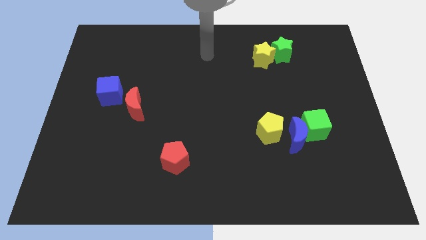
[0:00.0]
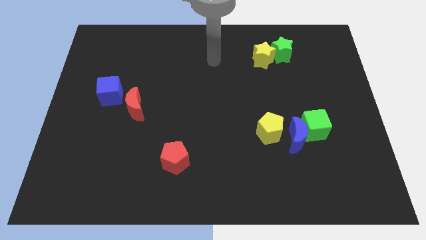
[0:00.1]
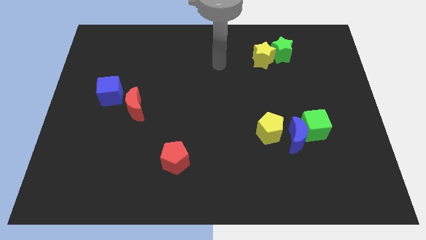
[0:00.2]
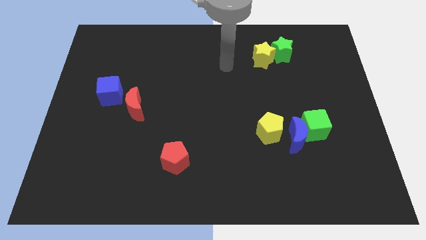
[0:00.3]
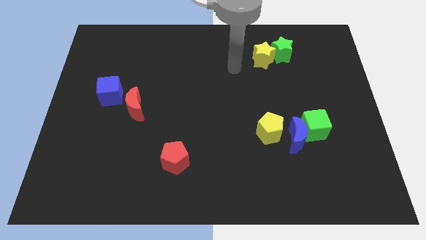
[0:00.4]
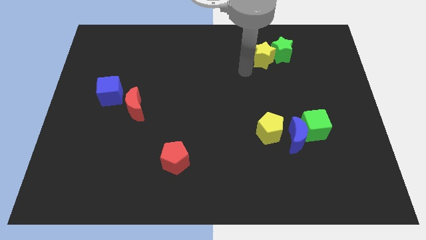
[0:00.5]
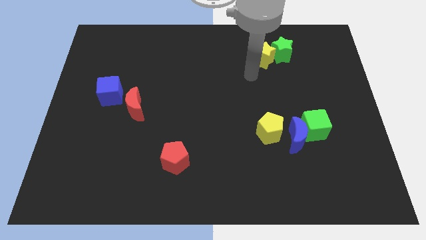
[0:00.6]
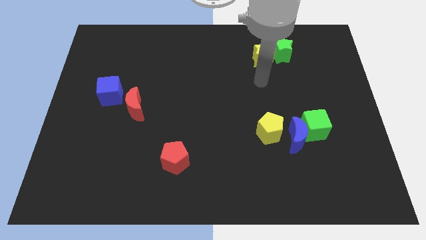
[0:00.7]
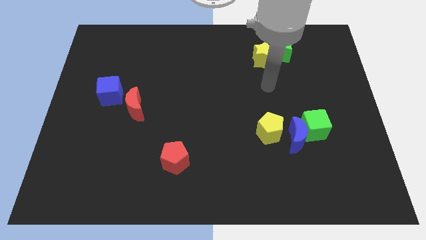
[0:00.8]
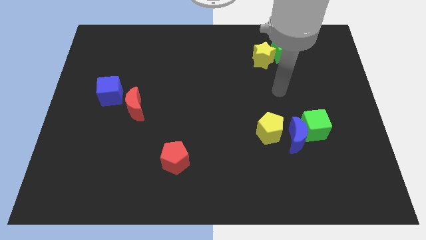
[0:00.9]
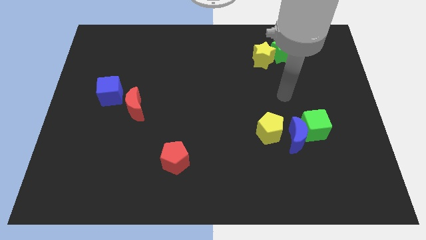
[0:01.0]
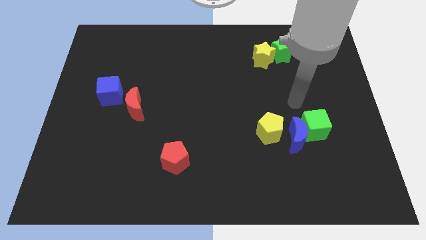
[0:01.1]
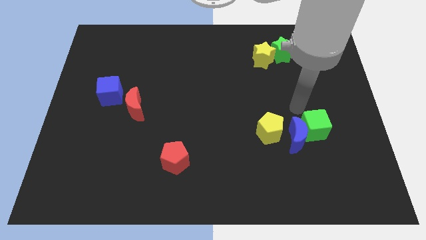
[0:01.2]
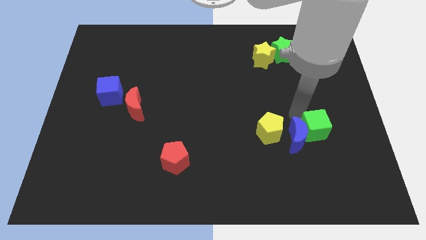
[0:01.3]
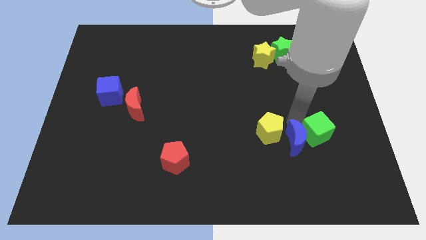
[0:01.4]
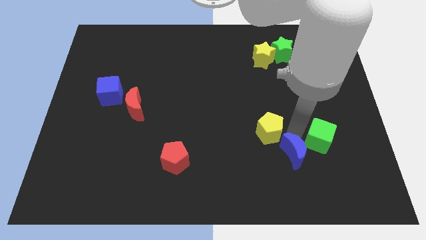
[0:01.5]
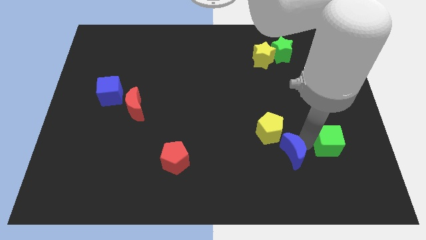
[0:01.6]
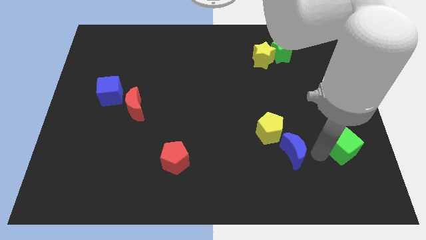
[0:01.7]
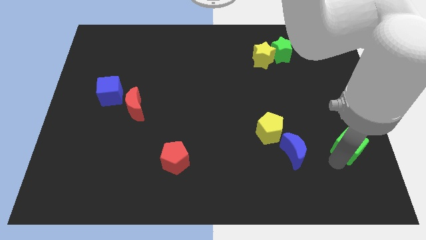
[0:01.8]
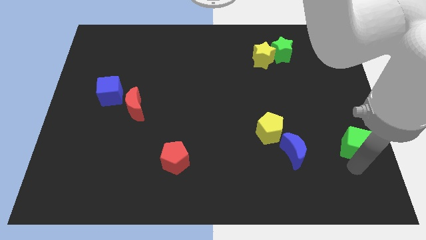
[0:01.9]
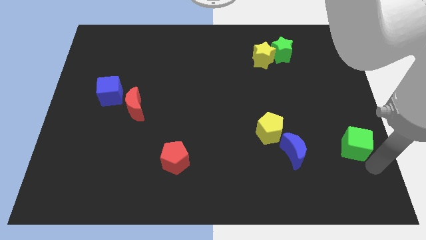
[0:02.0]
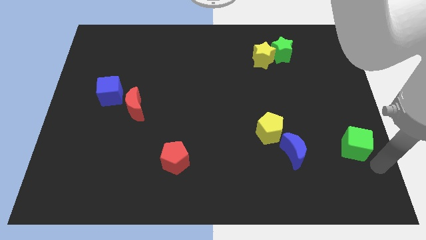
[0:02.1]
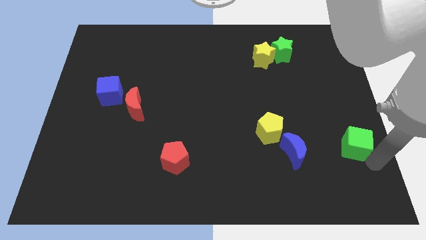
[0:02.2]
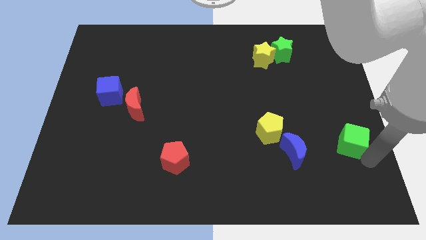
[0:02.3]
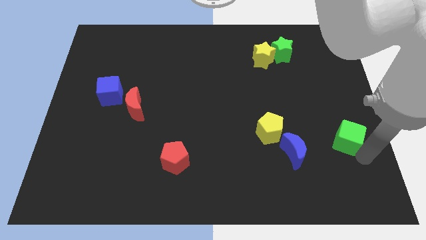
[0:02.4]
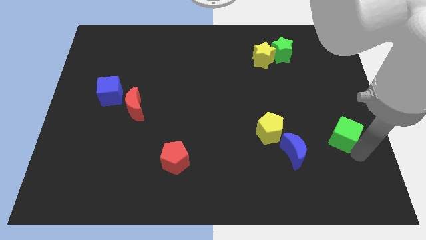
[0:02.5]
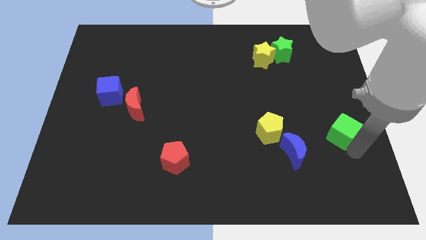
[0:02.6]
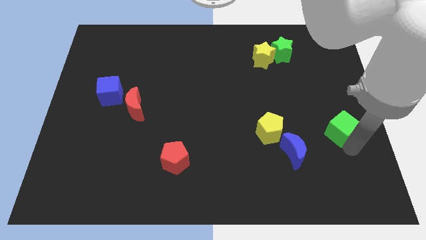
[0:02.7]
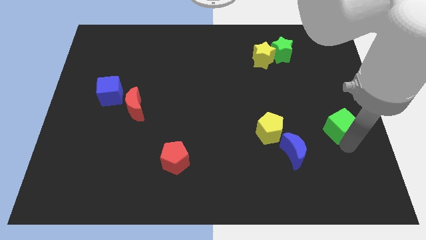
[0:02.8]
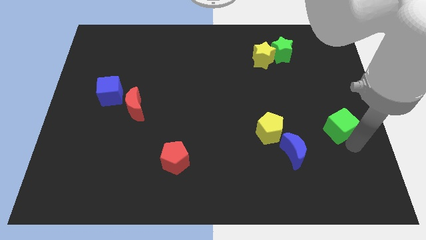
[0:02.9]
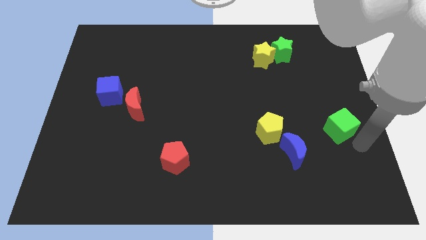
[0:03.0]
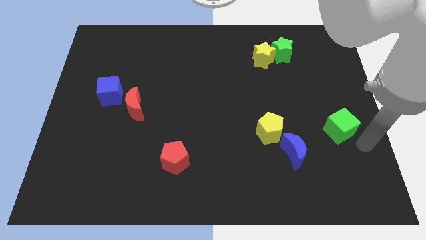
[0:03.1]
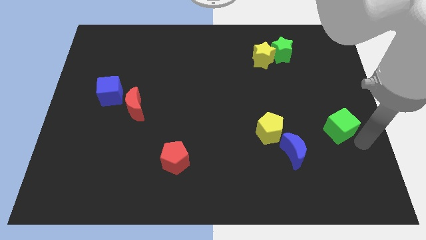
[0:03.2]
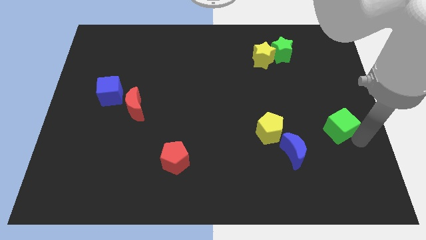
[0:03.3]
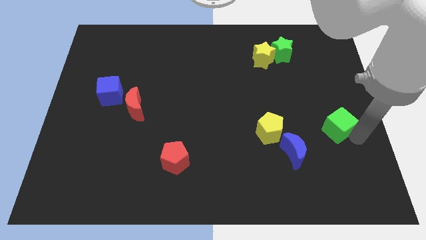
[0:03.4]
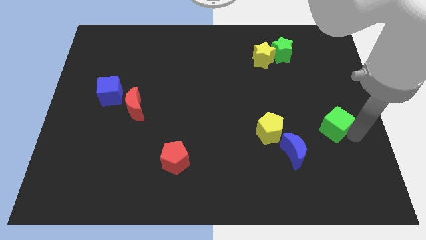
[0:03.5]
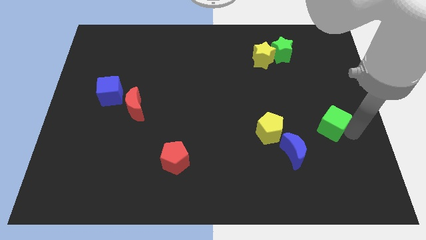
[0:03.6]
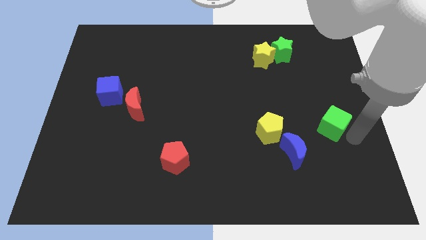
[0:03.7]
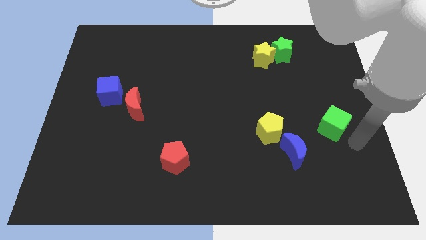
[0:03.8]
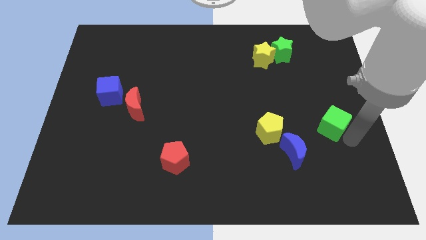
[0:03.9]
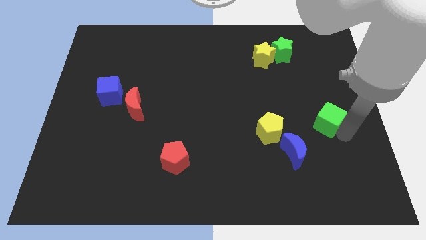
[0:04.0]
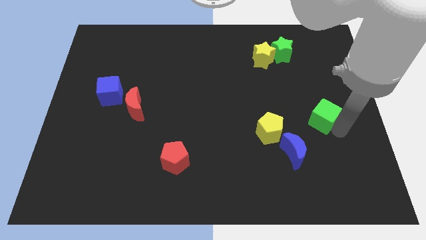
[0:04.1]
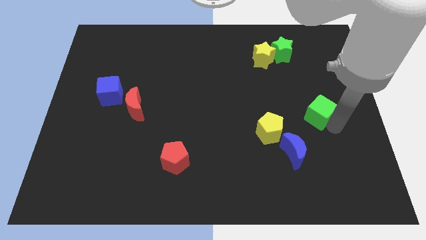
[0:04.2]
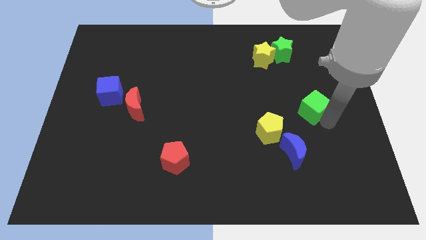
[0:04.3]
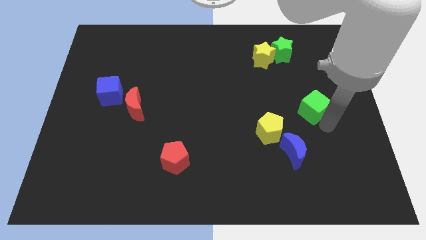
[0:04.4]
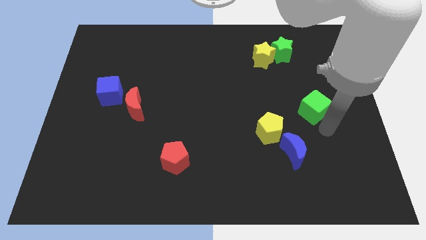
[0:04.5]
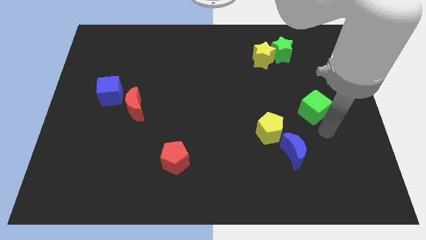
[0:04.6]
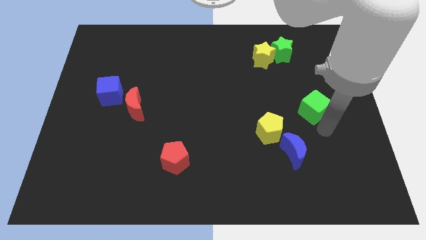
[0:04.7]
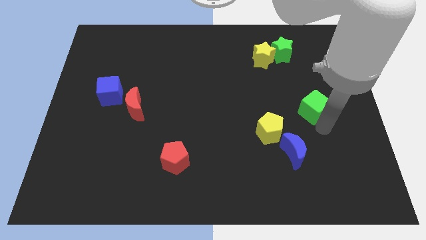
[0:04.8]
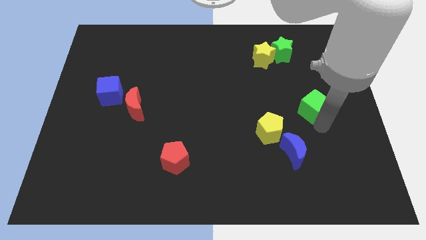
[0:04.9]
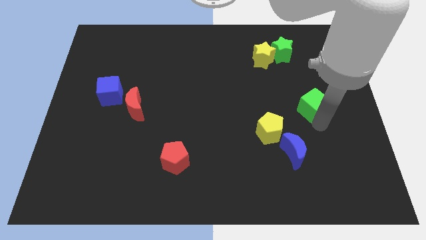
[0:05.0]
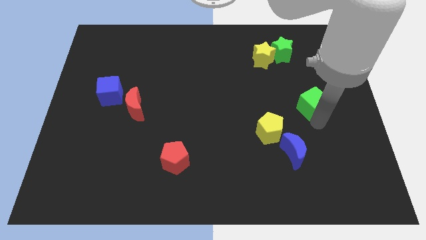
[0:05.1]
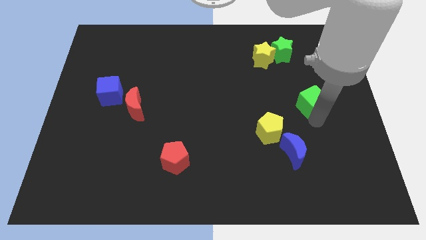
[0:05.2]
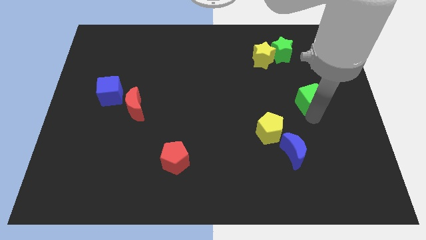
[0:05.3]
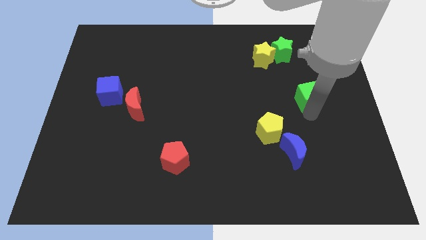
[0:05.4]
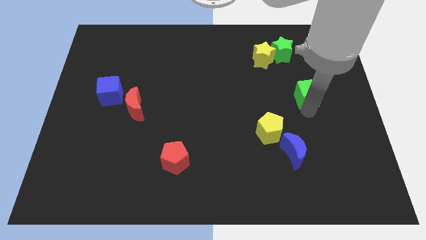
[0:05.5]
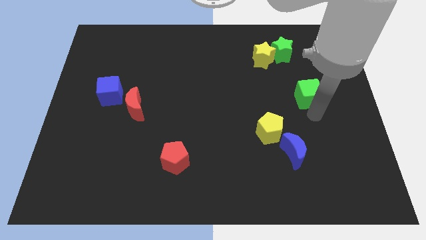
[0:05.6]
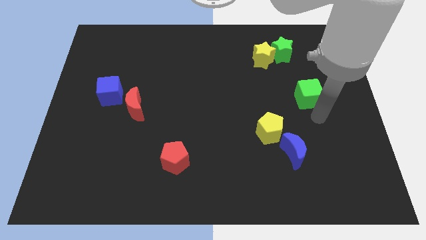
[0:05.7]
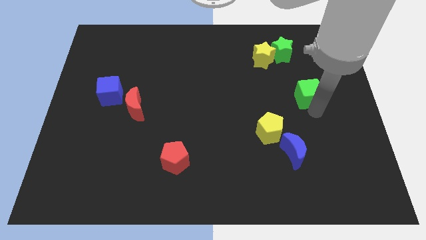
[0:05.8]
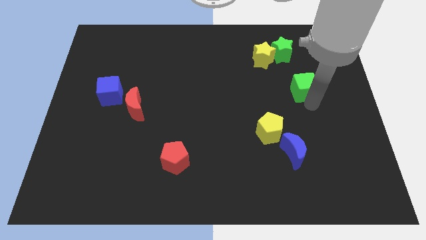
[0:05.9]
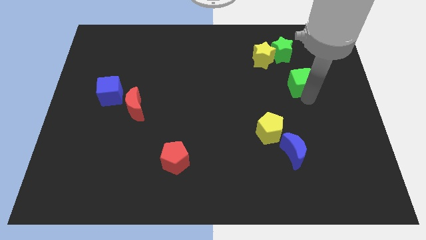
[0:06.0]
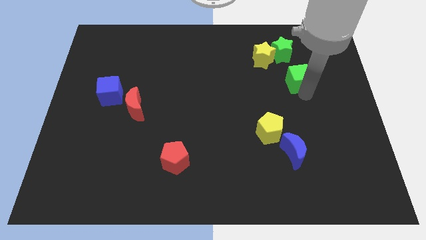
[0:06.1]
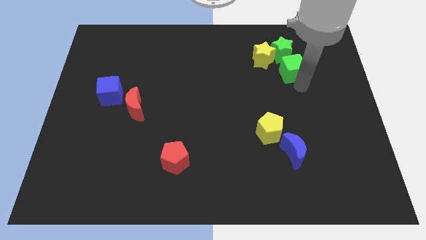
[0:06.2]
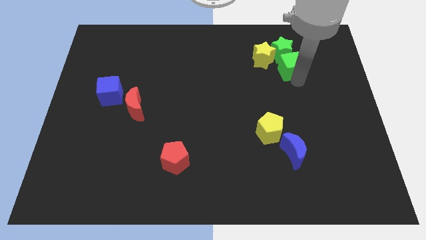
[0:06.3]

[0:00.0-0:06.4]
push the green cube towards the green star
